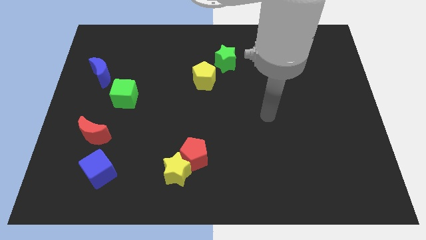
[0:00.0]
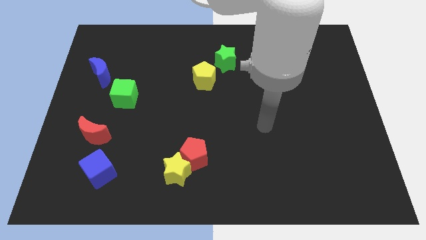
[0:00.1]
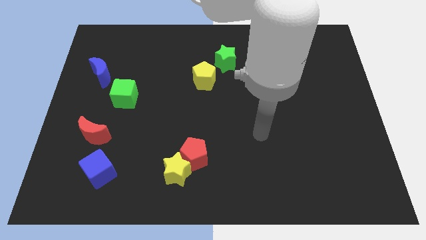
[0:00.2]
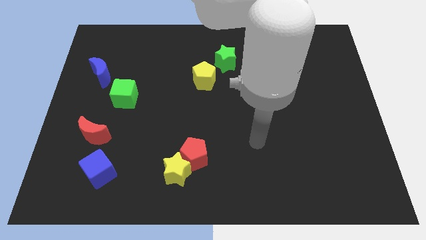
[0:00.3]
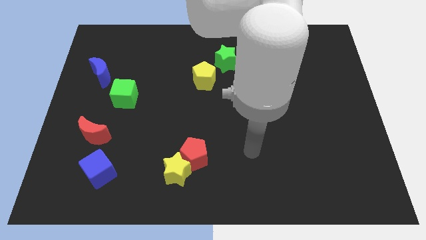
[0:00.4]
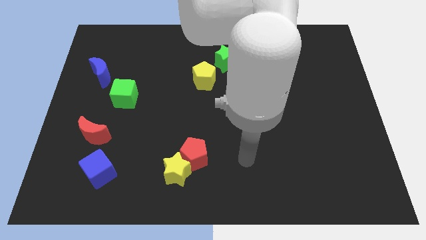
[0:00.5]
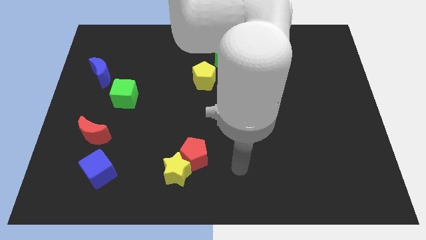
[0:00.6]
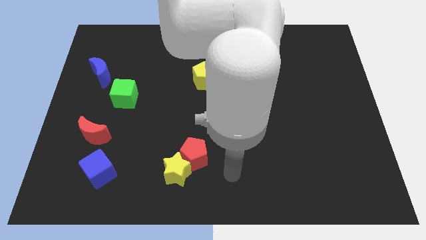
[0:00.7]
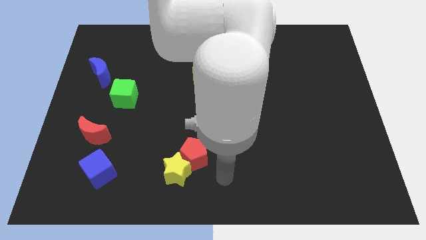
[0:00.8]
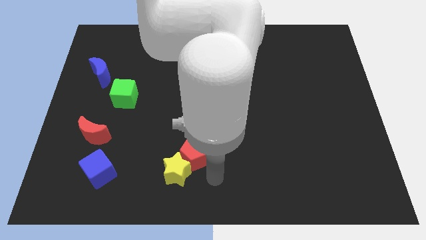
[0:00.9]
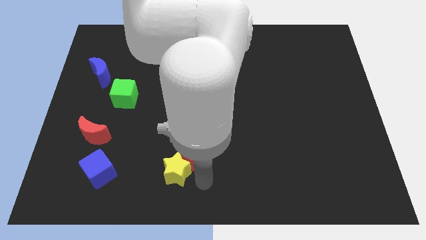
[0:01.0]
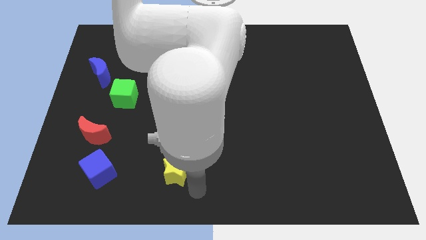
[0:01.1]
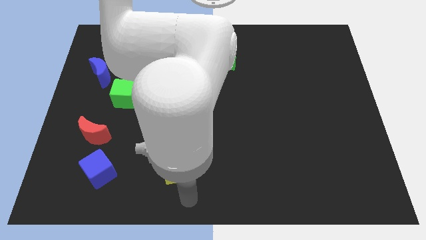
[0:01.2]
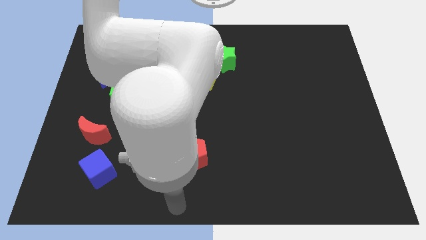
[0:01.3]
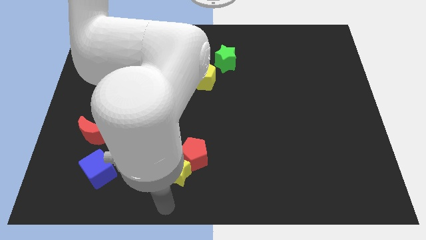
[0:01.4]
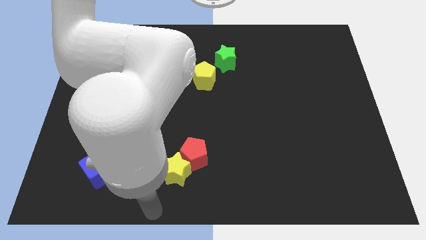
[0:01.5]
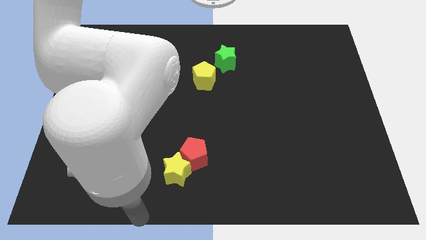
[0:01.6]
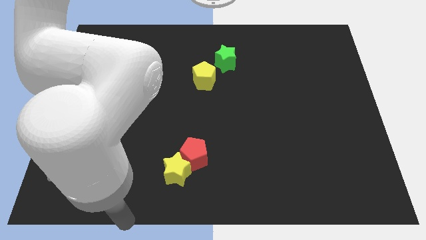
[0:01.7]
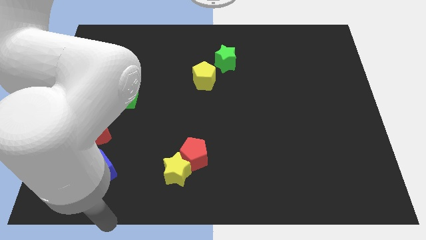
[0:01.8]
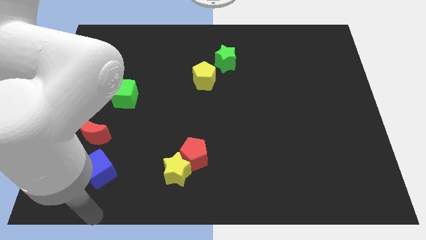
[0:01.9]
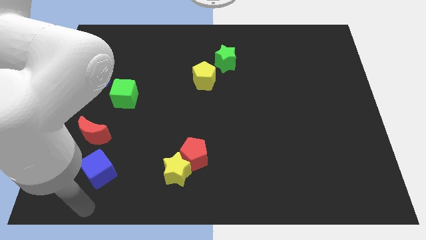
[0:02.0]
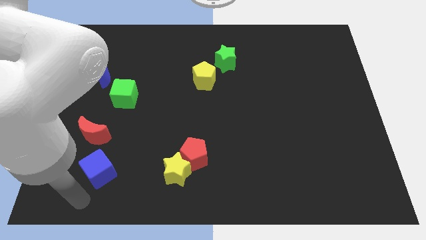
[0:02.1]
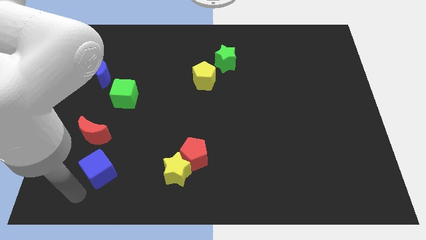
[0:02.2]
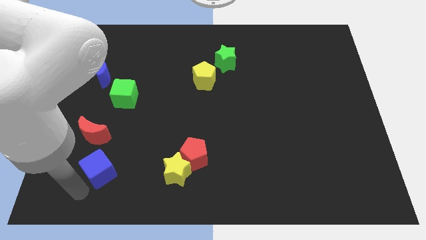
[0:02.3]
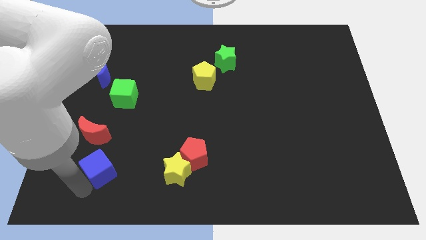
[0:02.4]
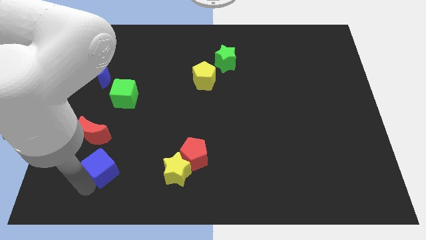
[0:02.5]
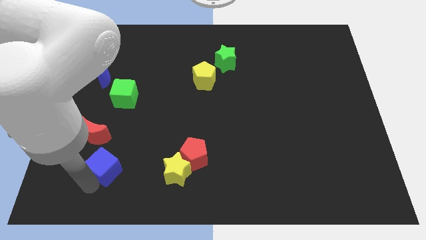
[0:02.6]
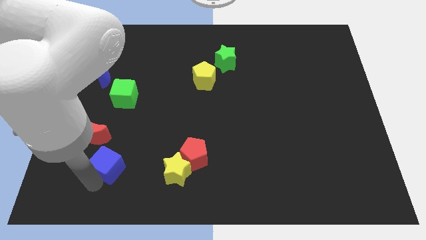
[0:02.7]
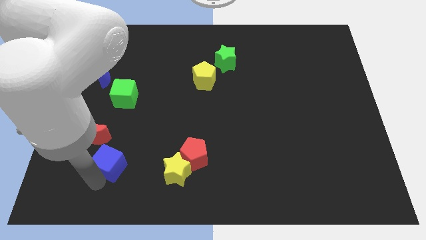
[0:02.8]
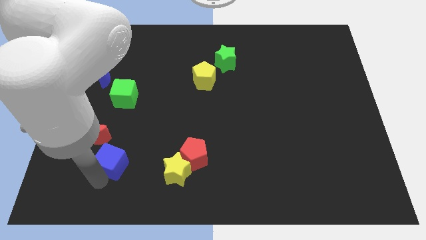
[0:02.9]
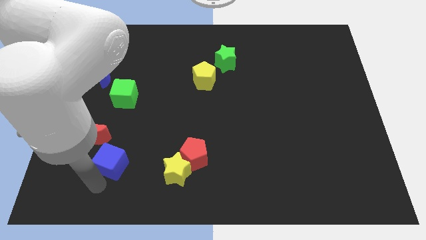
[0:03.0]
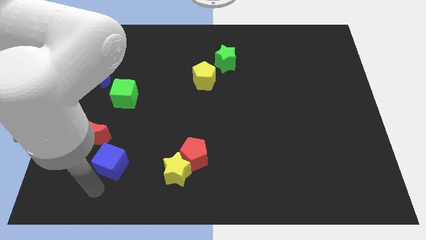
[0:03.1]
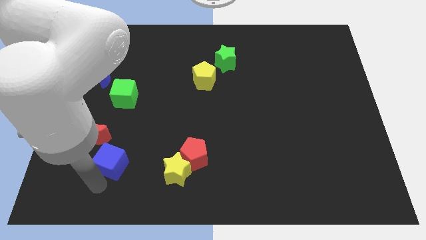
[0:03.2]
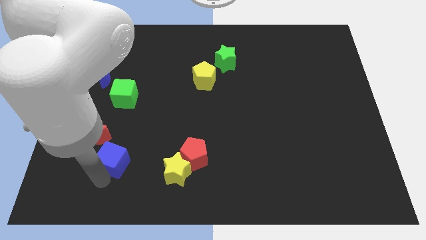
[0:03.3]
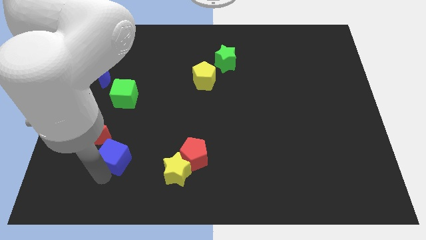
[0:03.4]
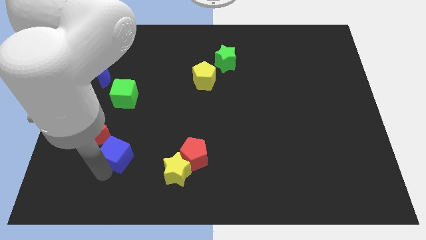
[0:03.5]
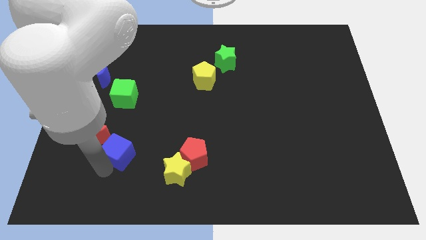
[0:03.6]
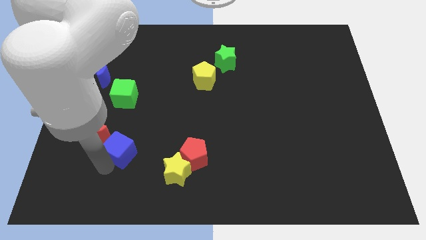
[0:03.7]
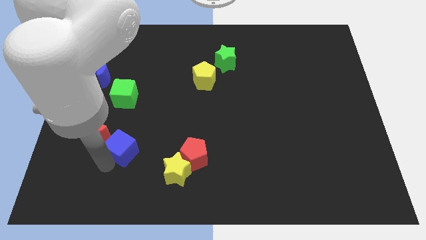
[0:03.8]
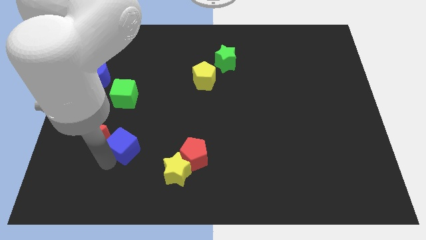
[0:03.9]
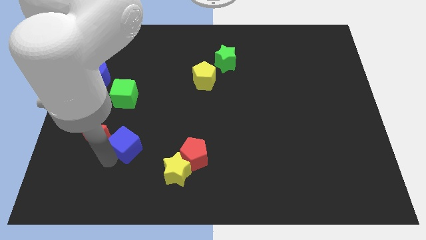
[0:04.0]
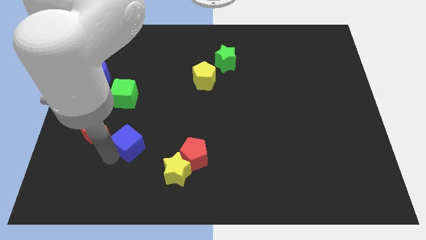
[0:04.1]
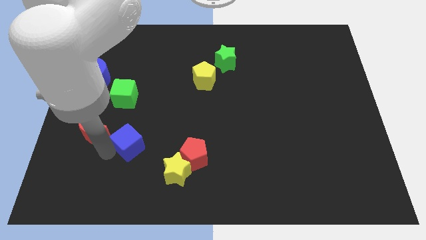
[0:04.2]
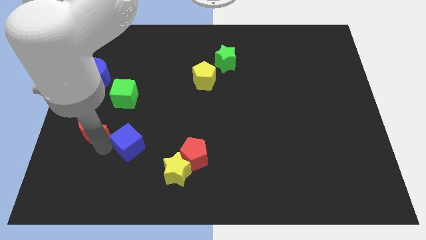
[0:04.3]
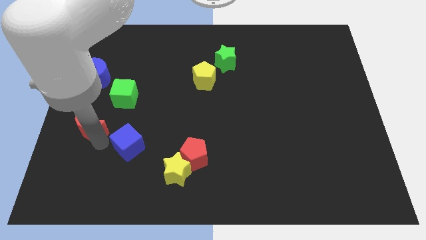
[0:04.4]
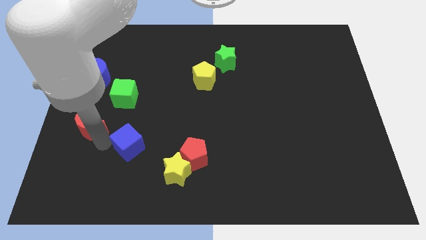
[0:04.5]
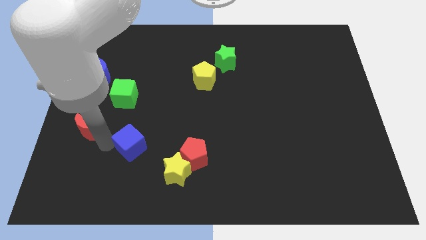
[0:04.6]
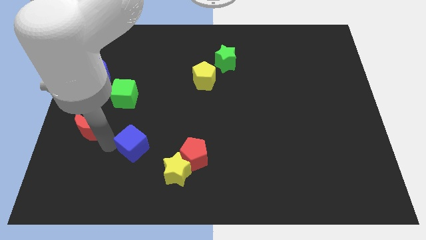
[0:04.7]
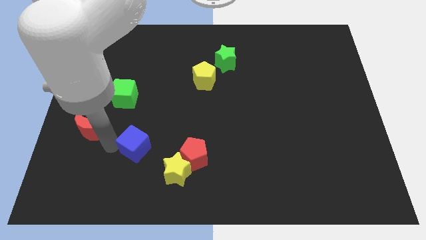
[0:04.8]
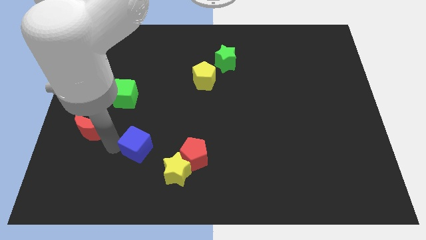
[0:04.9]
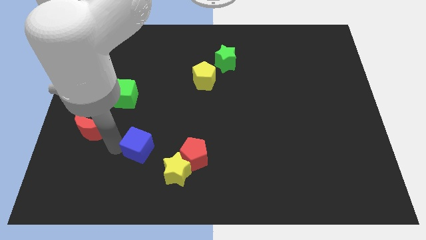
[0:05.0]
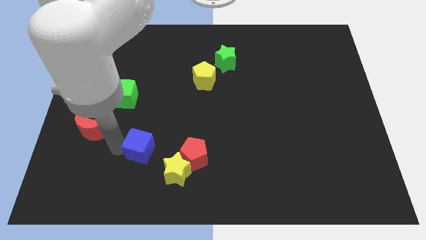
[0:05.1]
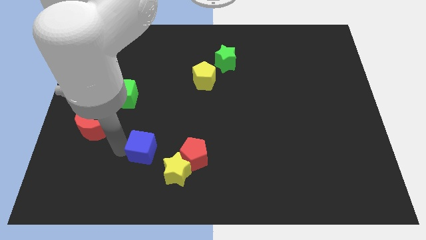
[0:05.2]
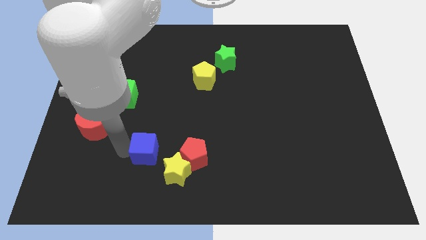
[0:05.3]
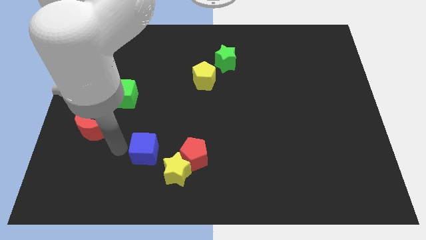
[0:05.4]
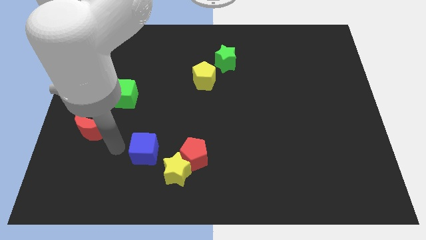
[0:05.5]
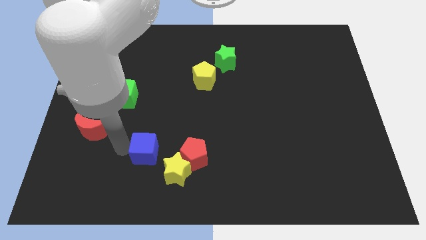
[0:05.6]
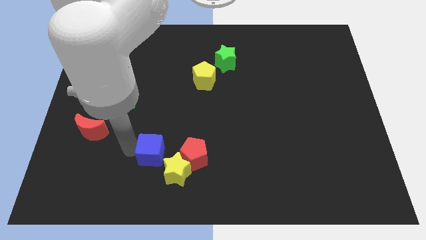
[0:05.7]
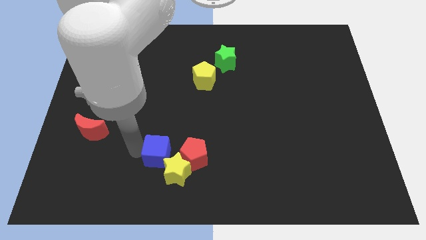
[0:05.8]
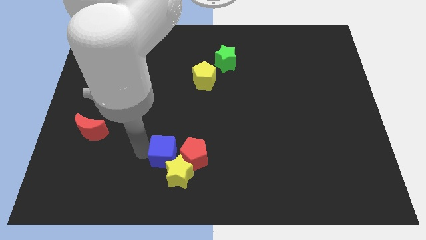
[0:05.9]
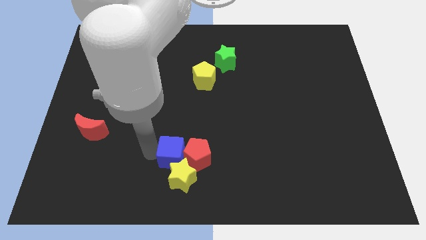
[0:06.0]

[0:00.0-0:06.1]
slide the blue cube towards the red pentagon
